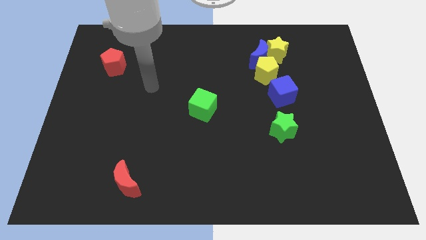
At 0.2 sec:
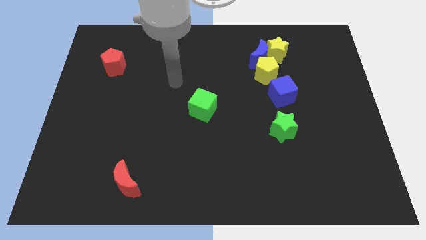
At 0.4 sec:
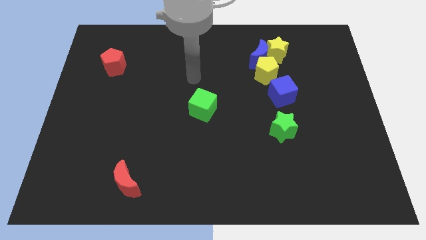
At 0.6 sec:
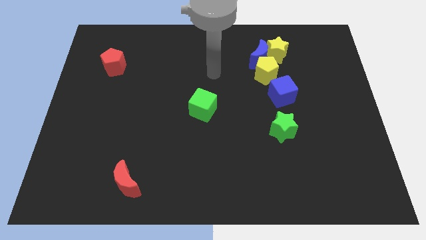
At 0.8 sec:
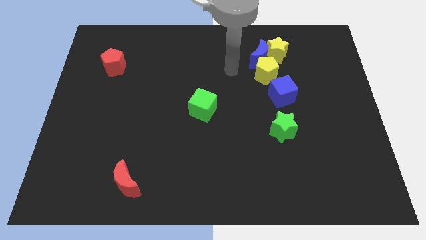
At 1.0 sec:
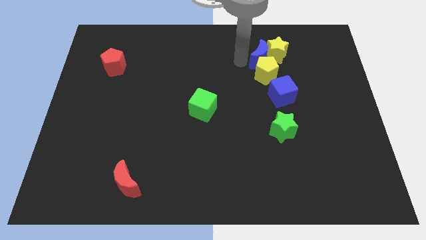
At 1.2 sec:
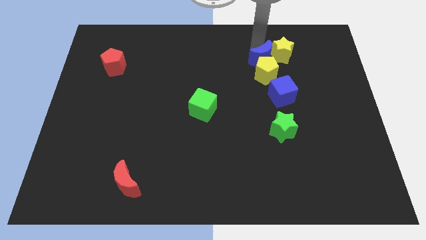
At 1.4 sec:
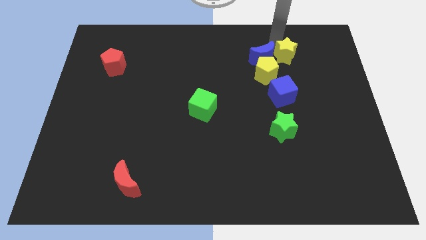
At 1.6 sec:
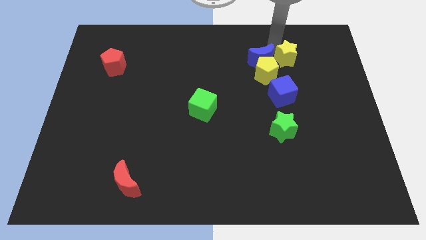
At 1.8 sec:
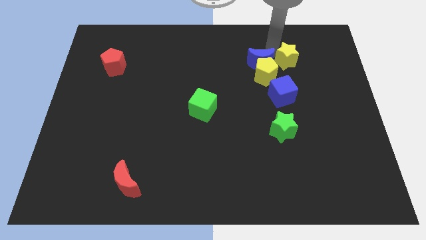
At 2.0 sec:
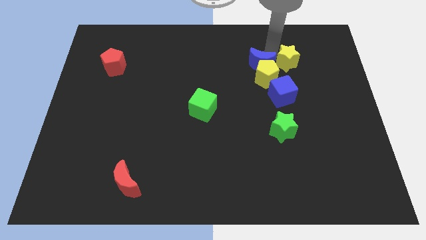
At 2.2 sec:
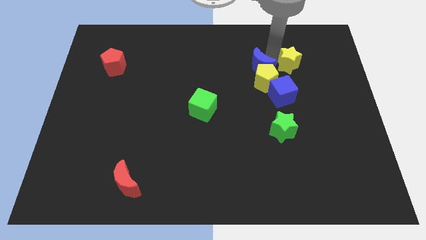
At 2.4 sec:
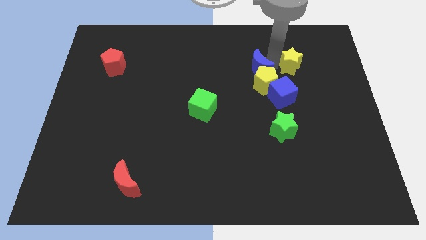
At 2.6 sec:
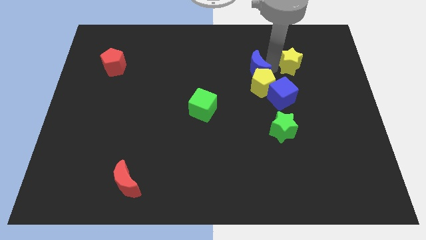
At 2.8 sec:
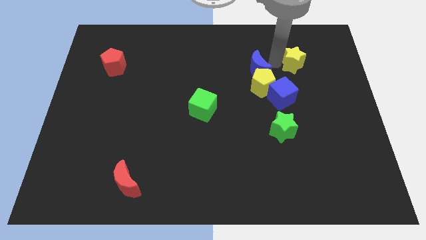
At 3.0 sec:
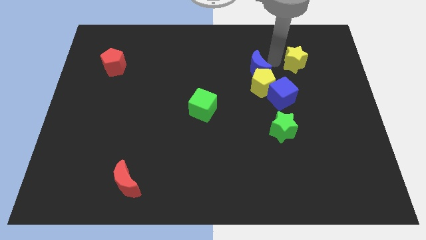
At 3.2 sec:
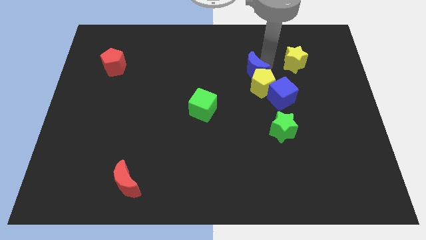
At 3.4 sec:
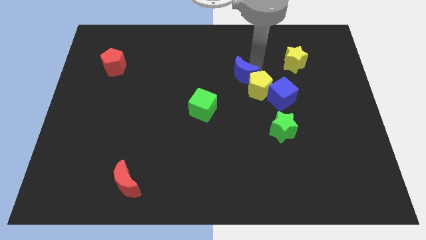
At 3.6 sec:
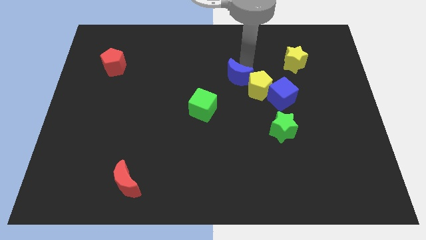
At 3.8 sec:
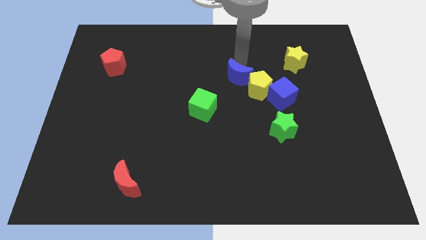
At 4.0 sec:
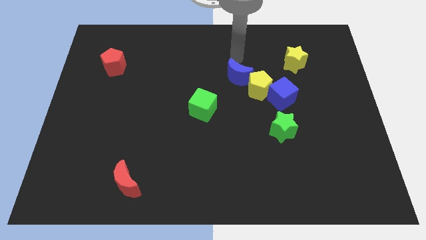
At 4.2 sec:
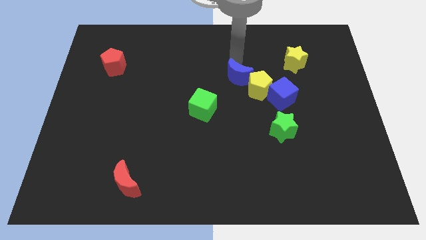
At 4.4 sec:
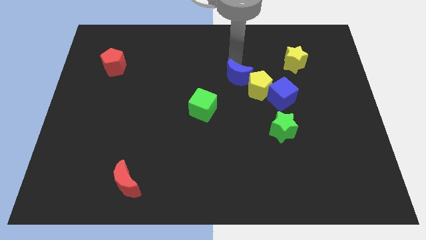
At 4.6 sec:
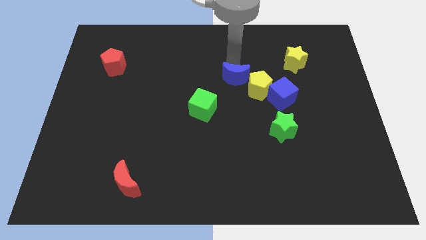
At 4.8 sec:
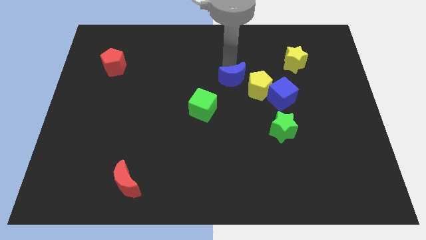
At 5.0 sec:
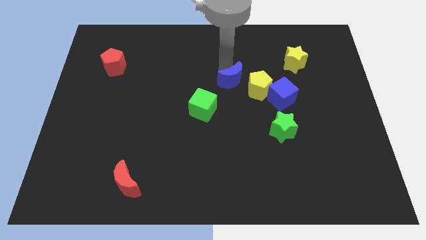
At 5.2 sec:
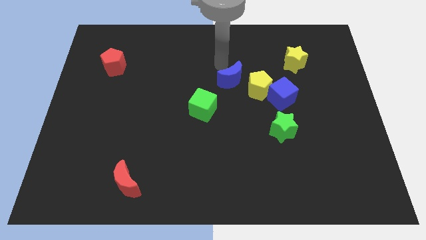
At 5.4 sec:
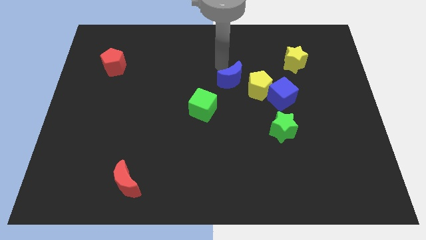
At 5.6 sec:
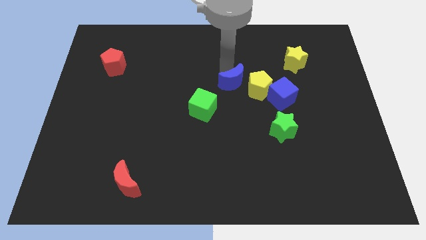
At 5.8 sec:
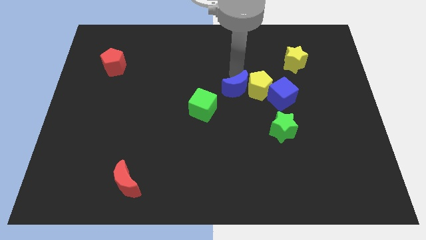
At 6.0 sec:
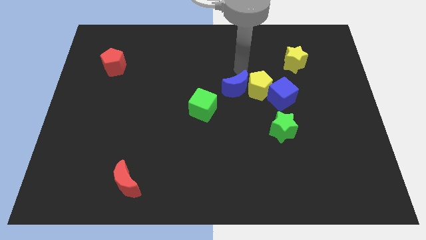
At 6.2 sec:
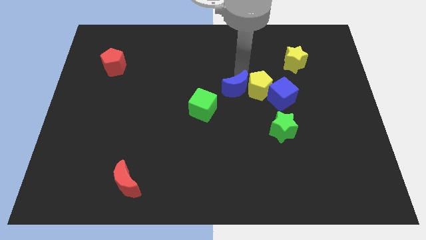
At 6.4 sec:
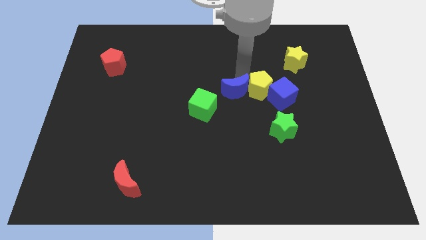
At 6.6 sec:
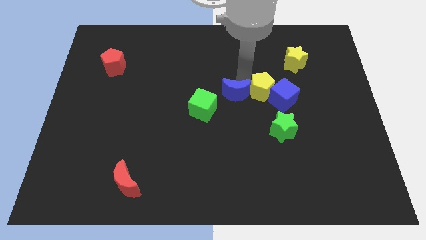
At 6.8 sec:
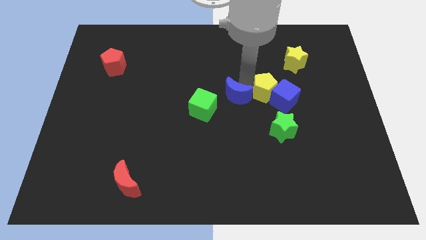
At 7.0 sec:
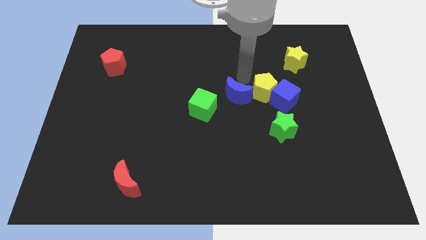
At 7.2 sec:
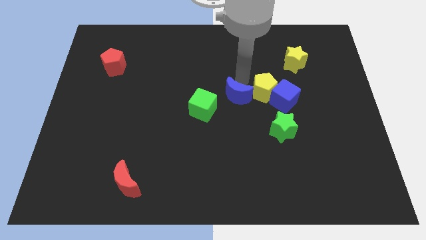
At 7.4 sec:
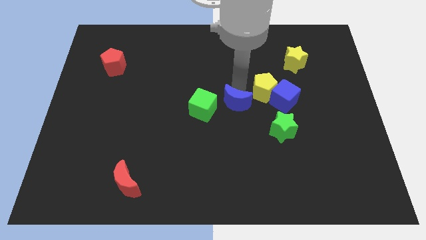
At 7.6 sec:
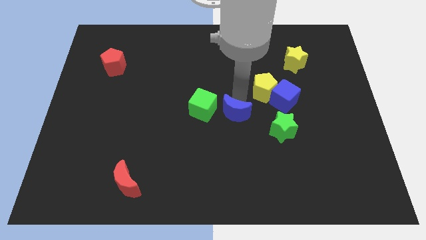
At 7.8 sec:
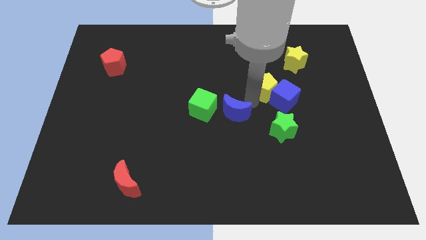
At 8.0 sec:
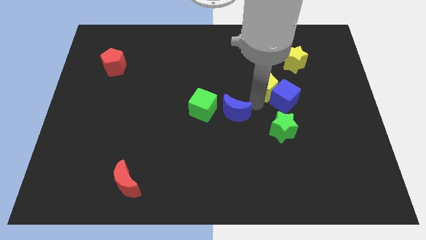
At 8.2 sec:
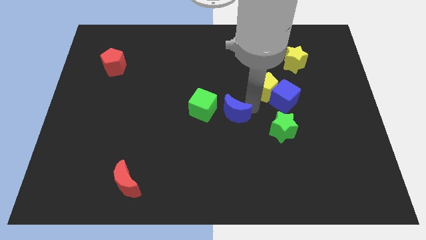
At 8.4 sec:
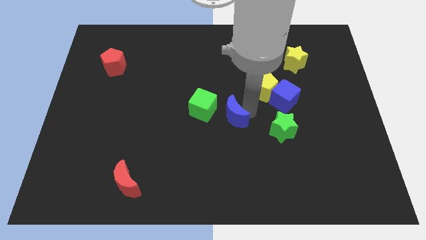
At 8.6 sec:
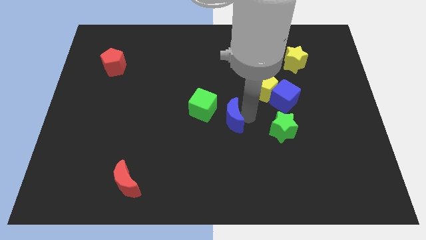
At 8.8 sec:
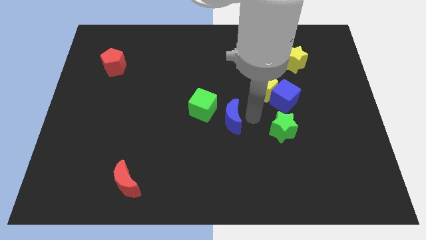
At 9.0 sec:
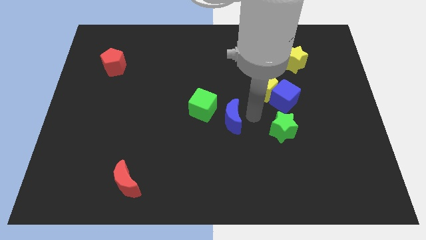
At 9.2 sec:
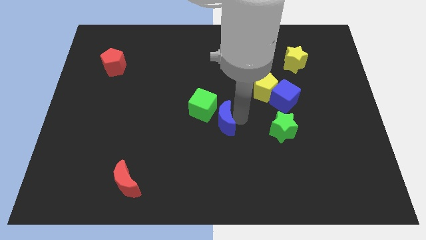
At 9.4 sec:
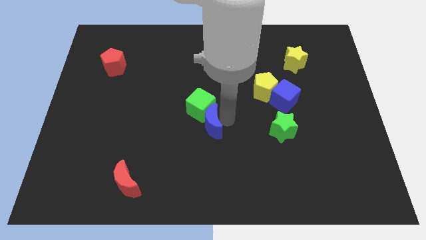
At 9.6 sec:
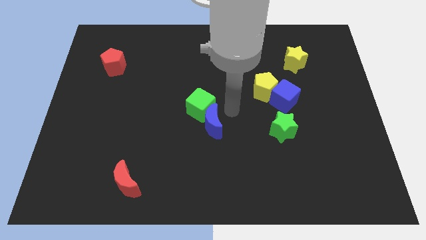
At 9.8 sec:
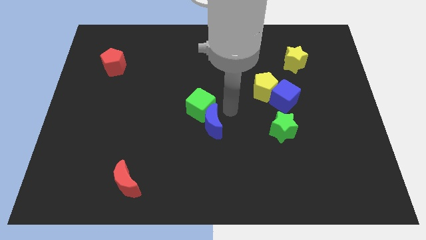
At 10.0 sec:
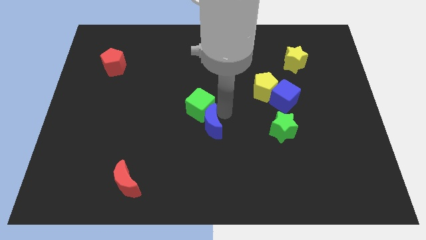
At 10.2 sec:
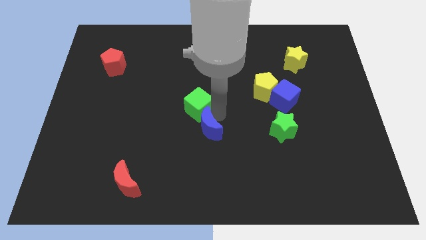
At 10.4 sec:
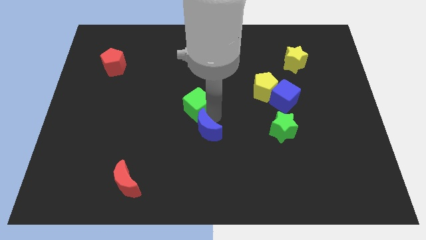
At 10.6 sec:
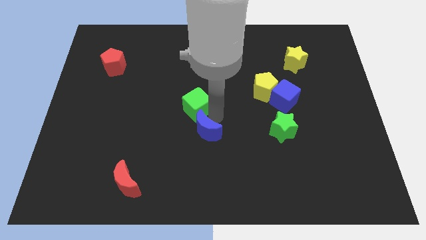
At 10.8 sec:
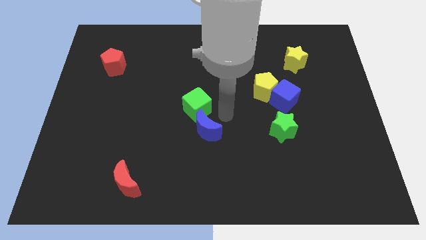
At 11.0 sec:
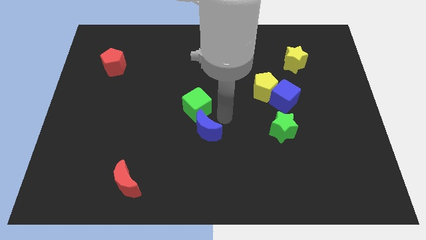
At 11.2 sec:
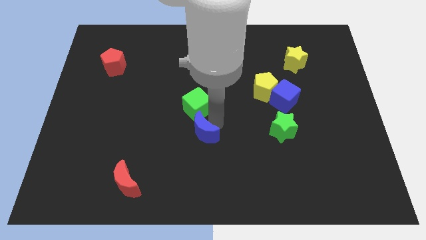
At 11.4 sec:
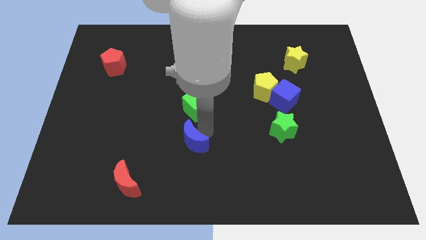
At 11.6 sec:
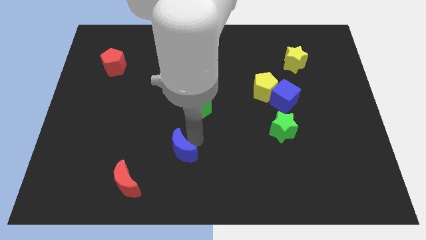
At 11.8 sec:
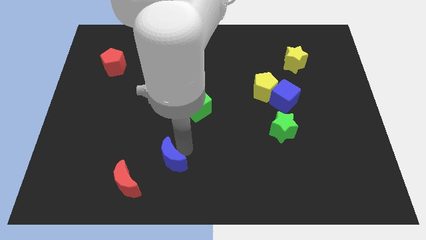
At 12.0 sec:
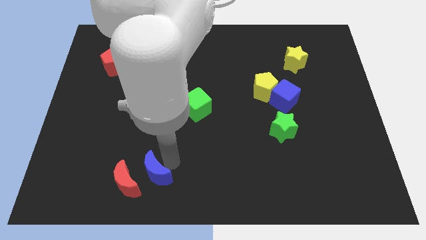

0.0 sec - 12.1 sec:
put the blue moon to the red moon

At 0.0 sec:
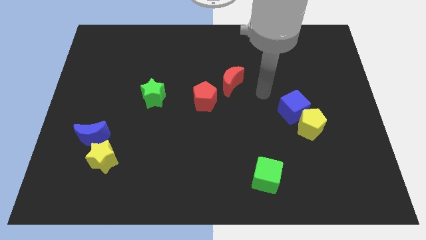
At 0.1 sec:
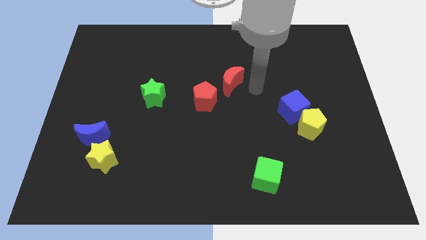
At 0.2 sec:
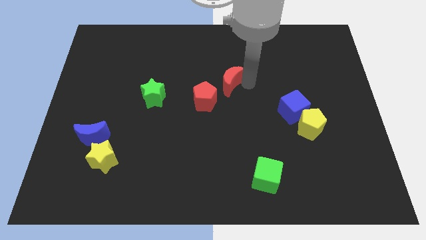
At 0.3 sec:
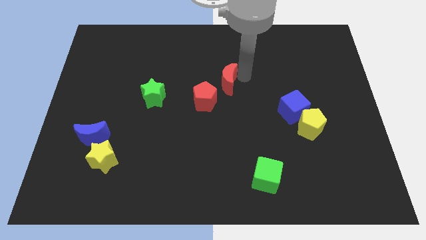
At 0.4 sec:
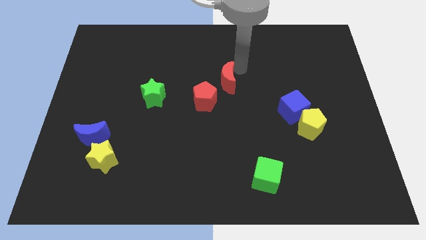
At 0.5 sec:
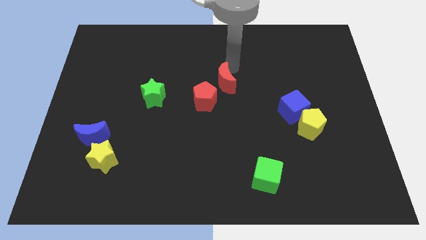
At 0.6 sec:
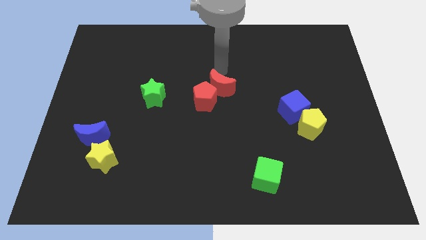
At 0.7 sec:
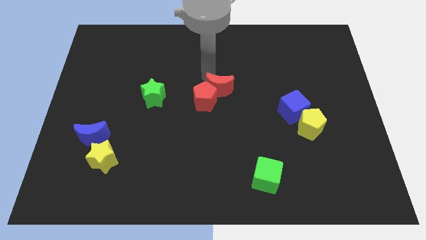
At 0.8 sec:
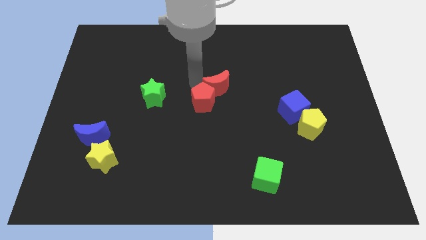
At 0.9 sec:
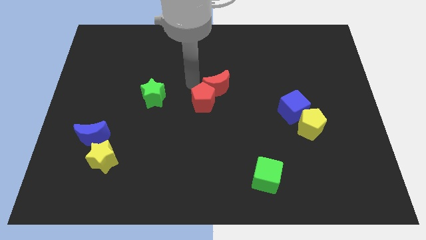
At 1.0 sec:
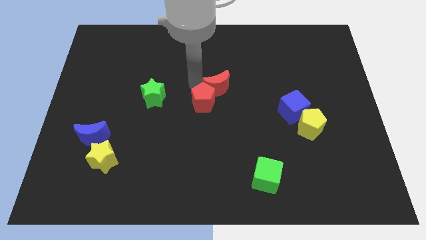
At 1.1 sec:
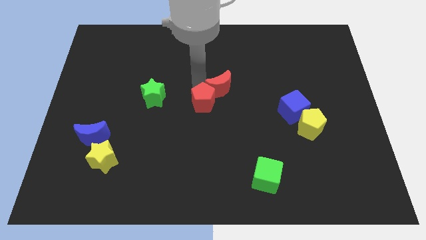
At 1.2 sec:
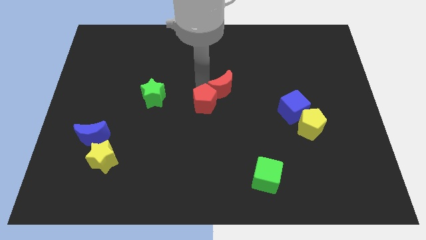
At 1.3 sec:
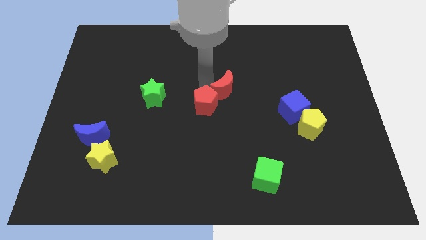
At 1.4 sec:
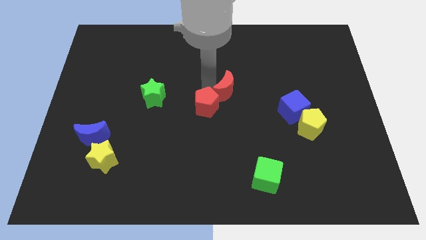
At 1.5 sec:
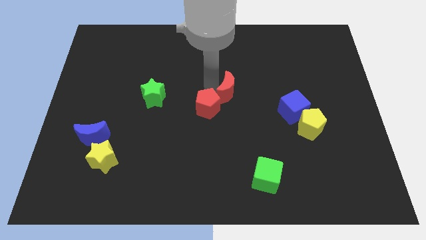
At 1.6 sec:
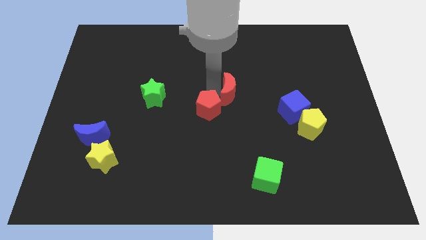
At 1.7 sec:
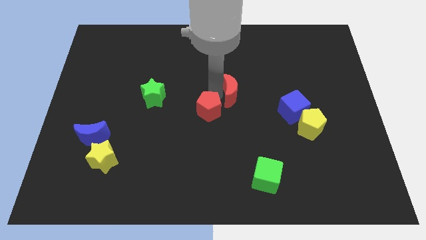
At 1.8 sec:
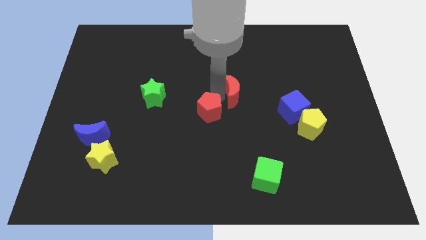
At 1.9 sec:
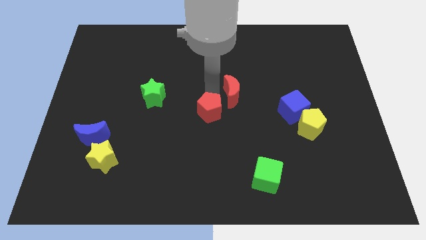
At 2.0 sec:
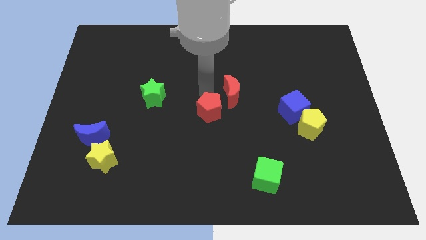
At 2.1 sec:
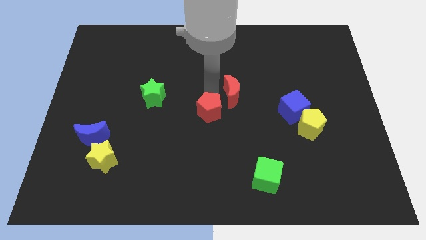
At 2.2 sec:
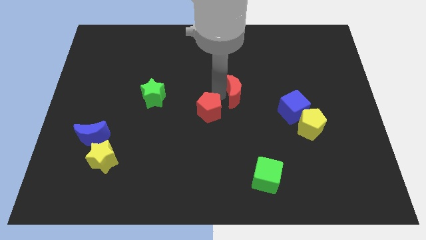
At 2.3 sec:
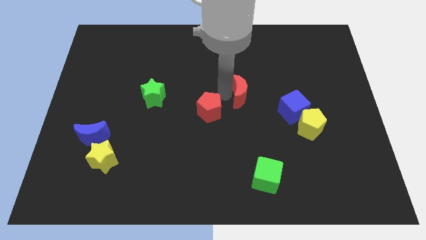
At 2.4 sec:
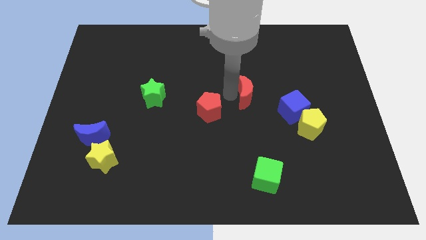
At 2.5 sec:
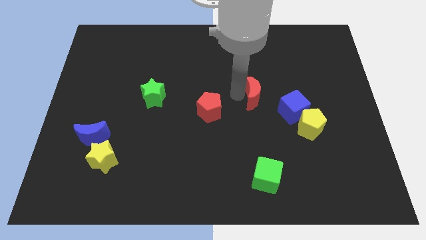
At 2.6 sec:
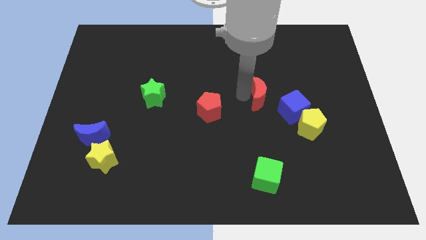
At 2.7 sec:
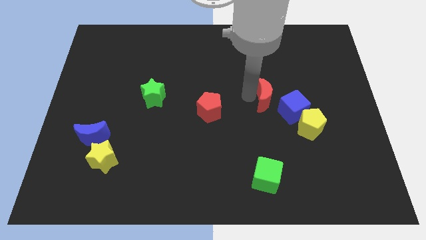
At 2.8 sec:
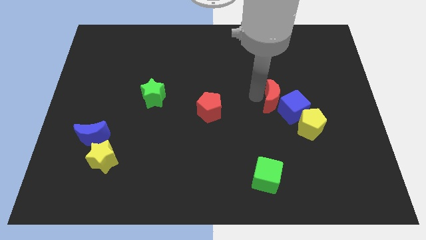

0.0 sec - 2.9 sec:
move the red moon towards the blue cube
